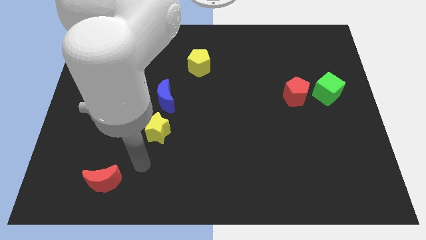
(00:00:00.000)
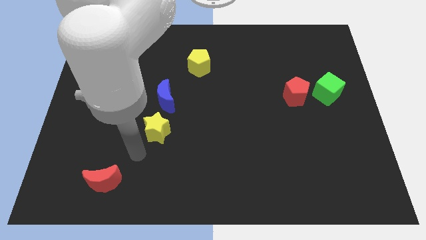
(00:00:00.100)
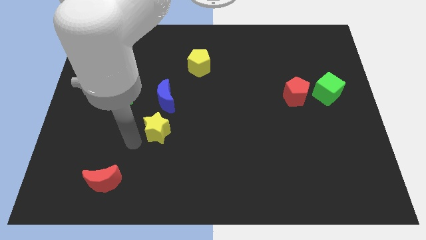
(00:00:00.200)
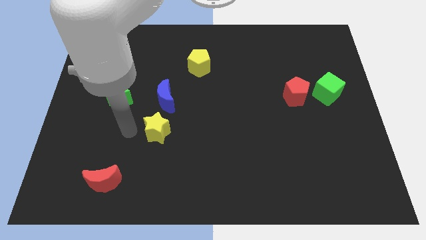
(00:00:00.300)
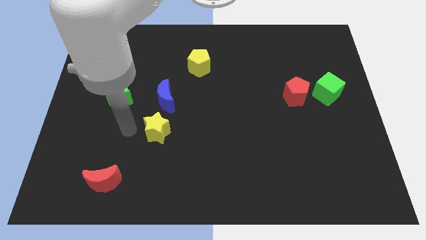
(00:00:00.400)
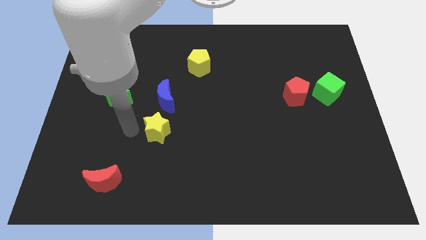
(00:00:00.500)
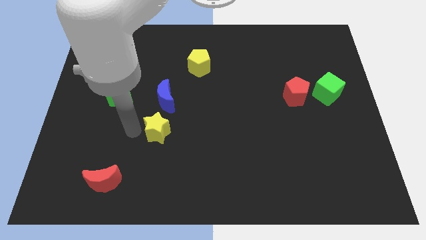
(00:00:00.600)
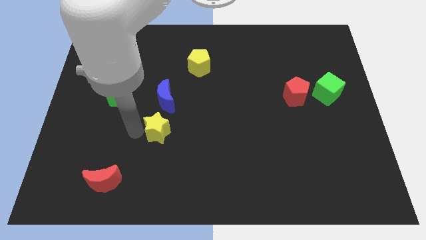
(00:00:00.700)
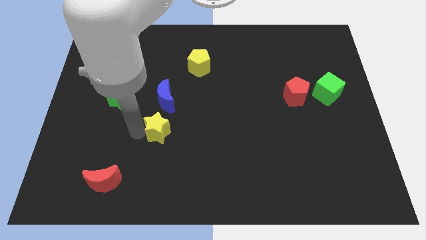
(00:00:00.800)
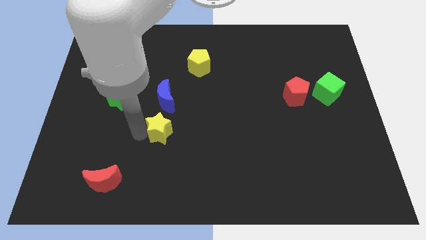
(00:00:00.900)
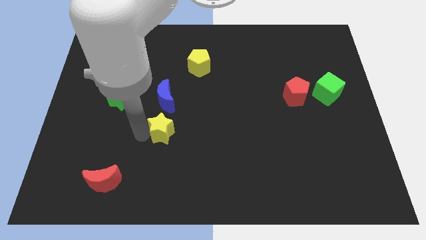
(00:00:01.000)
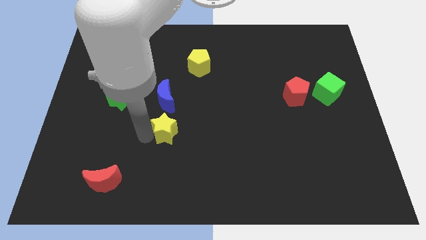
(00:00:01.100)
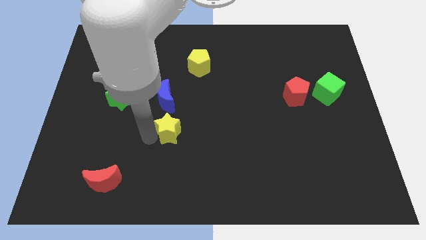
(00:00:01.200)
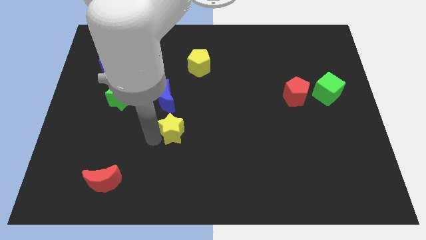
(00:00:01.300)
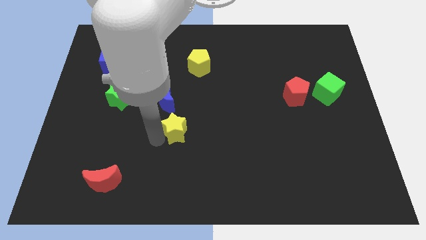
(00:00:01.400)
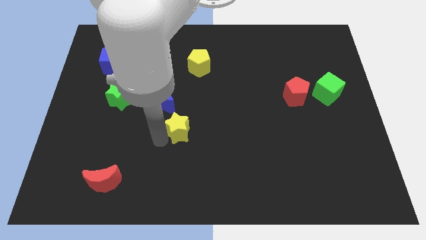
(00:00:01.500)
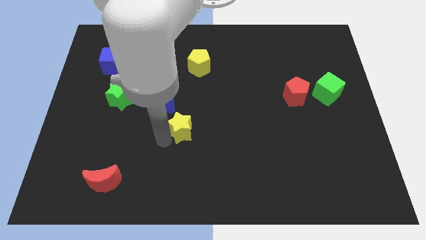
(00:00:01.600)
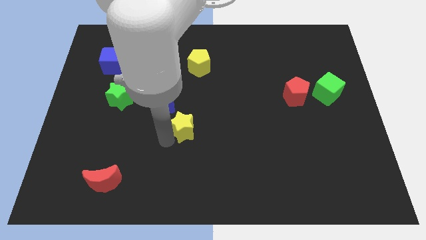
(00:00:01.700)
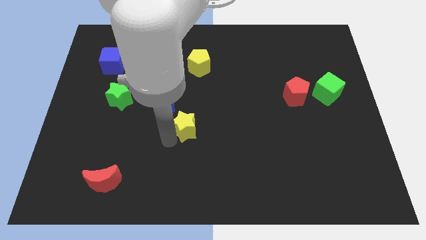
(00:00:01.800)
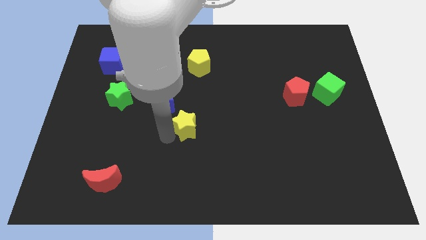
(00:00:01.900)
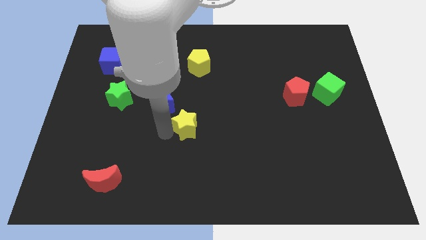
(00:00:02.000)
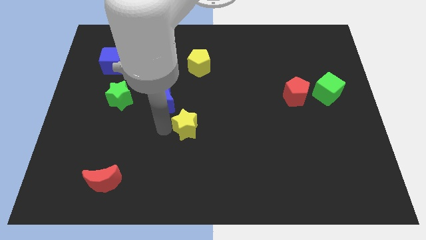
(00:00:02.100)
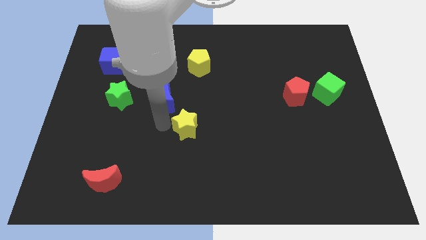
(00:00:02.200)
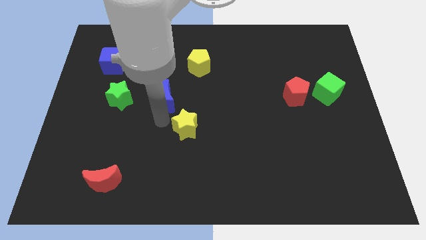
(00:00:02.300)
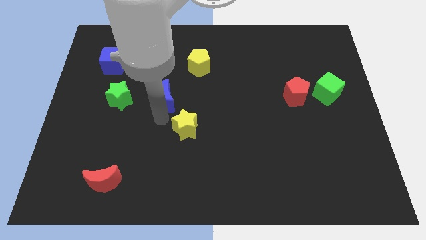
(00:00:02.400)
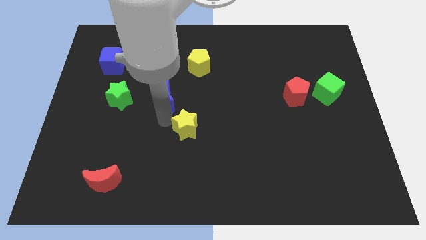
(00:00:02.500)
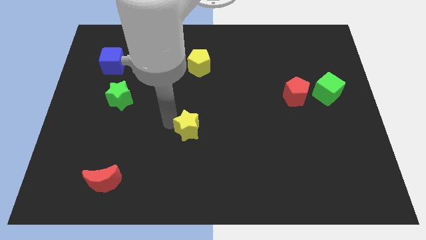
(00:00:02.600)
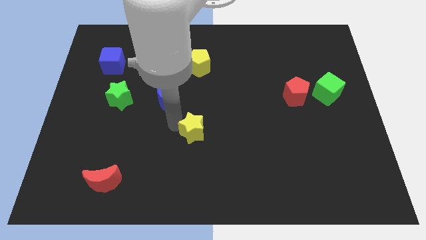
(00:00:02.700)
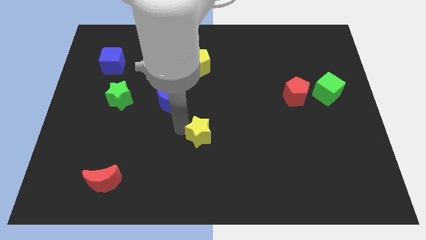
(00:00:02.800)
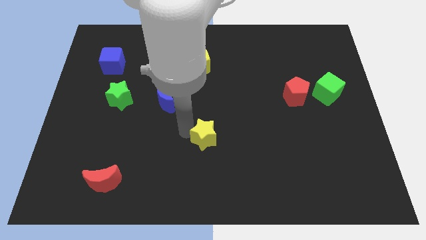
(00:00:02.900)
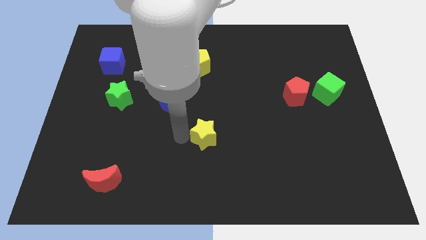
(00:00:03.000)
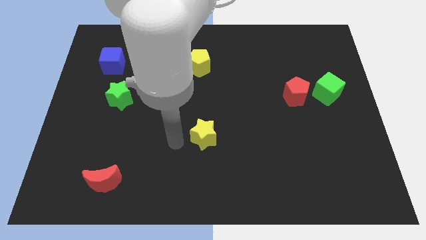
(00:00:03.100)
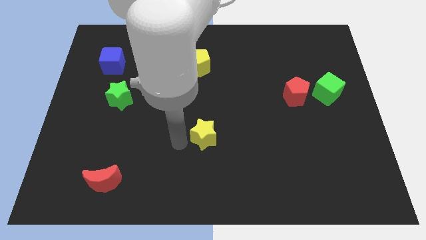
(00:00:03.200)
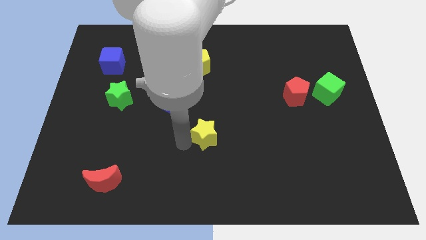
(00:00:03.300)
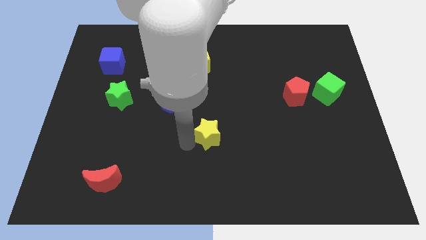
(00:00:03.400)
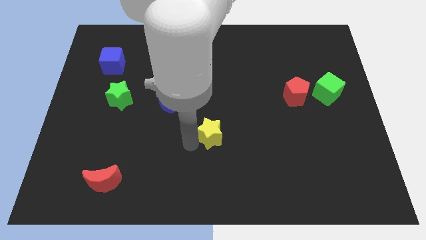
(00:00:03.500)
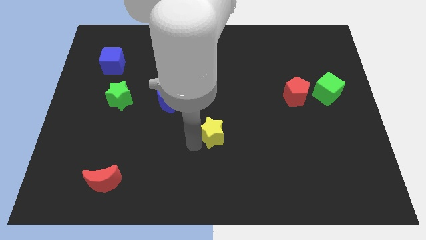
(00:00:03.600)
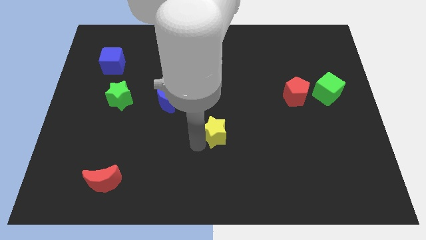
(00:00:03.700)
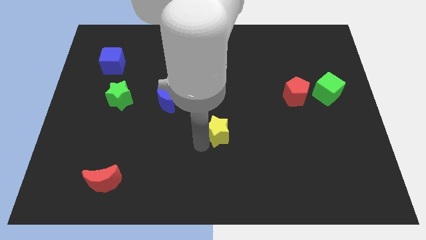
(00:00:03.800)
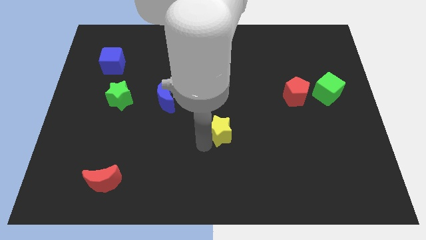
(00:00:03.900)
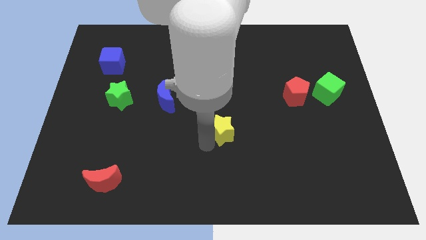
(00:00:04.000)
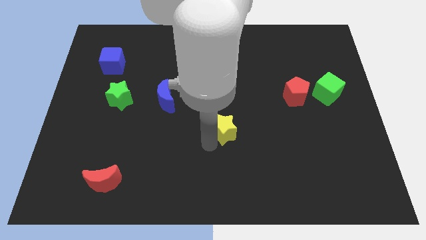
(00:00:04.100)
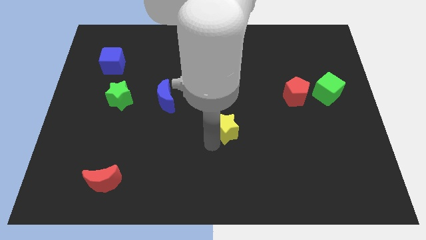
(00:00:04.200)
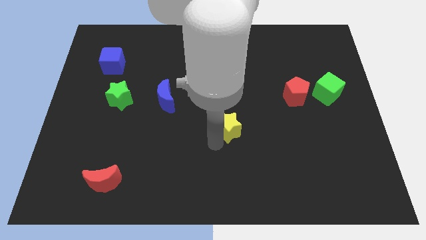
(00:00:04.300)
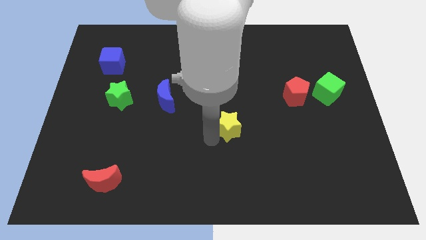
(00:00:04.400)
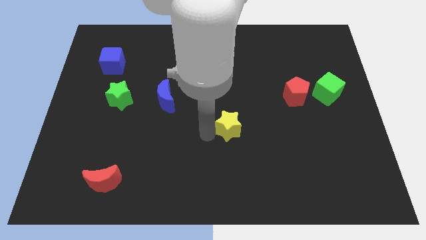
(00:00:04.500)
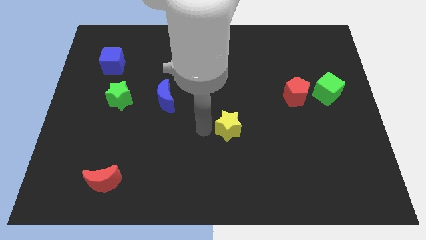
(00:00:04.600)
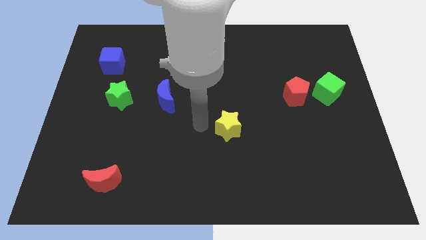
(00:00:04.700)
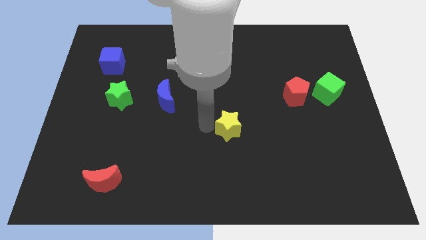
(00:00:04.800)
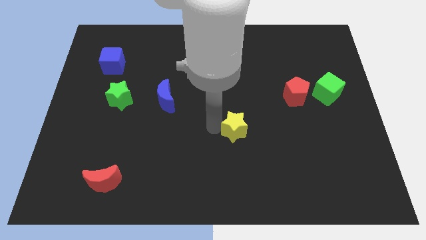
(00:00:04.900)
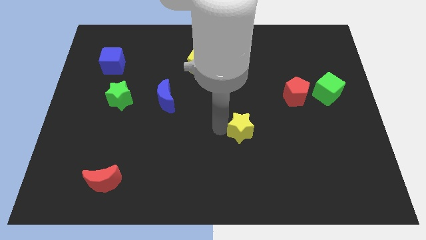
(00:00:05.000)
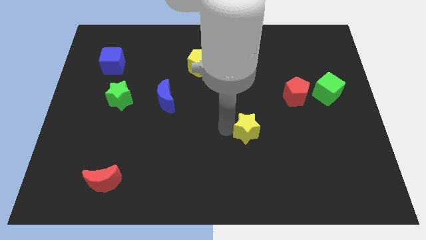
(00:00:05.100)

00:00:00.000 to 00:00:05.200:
move the yellow star to the right

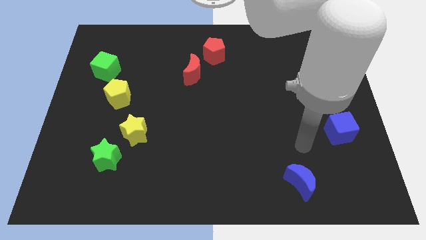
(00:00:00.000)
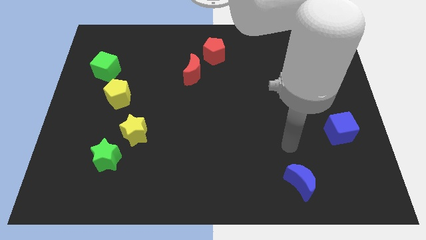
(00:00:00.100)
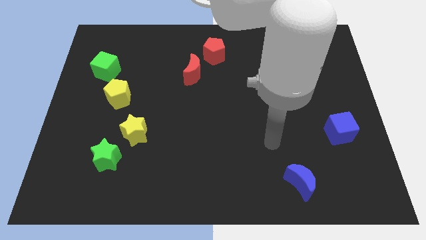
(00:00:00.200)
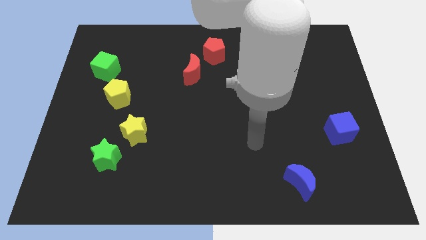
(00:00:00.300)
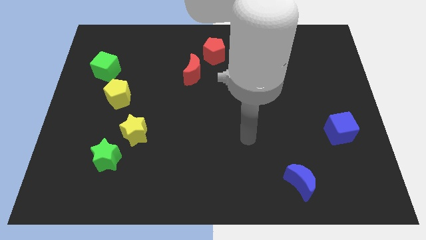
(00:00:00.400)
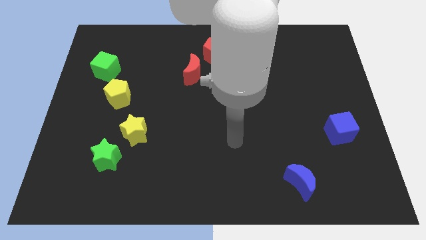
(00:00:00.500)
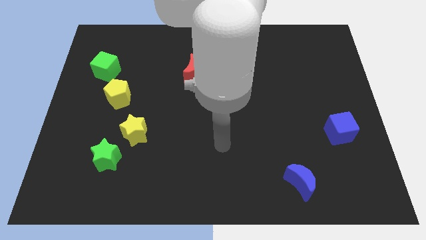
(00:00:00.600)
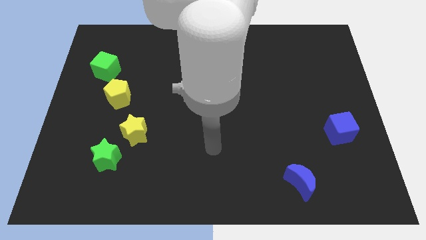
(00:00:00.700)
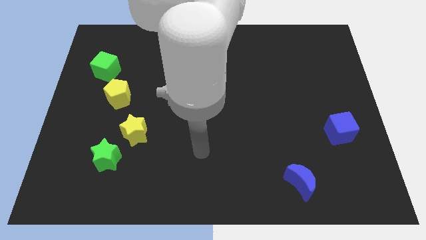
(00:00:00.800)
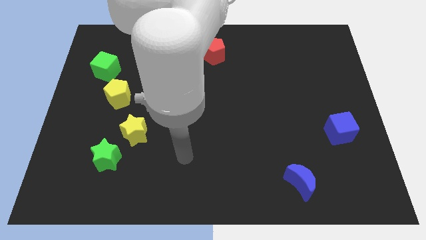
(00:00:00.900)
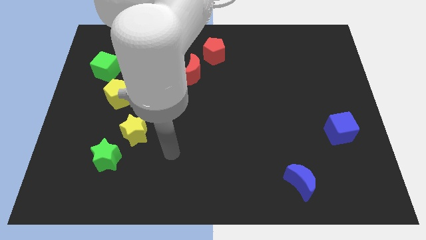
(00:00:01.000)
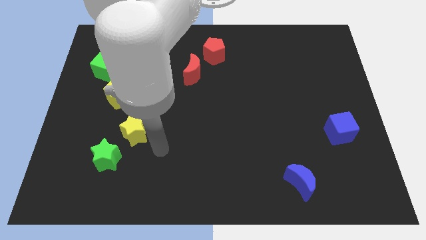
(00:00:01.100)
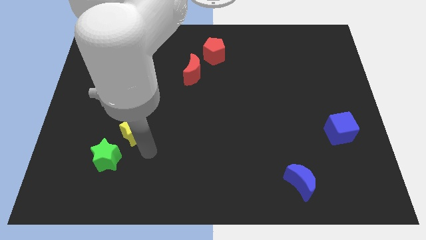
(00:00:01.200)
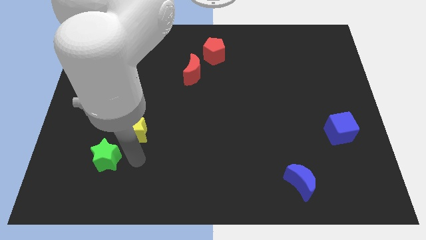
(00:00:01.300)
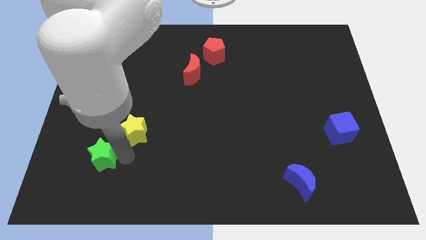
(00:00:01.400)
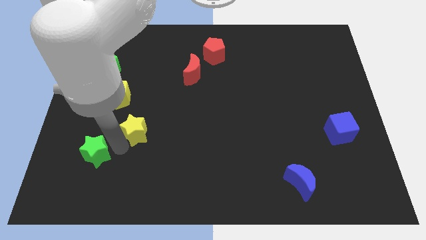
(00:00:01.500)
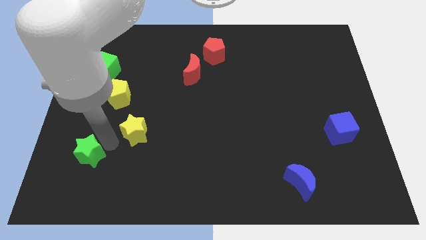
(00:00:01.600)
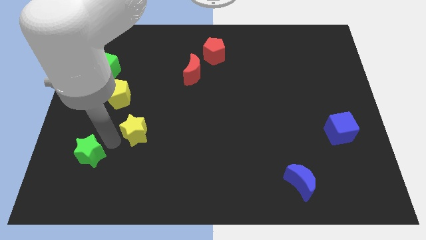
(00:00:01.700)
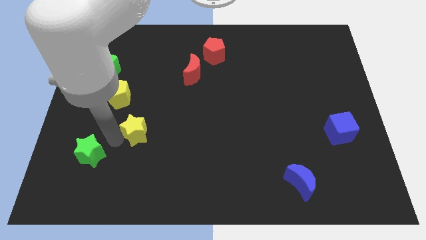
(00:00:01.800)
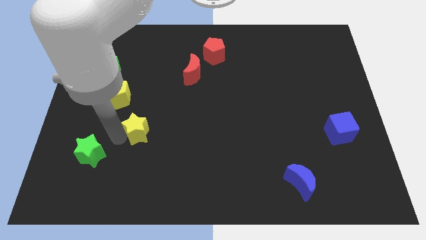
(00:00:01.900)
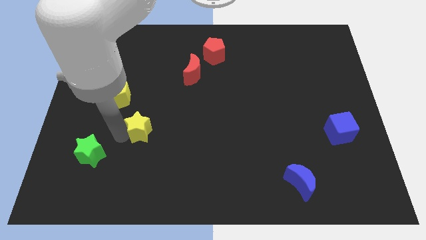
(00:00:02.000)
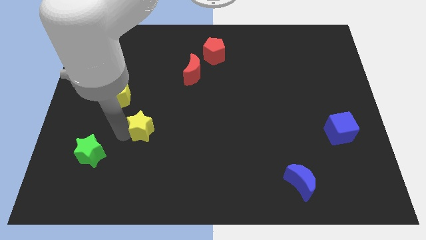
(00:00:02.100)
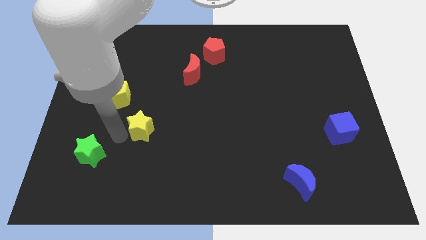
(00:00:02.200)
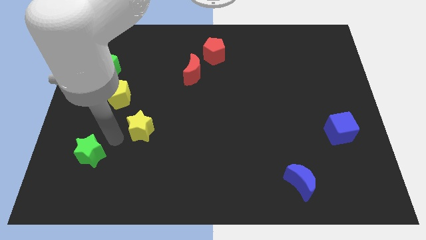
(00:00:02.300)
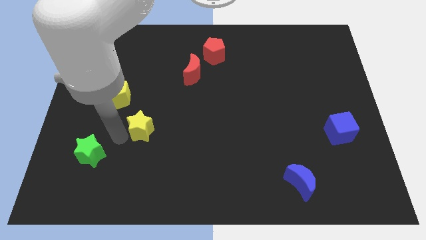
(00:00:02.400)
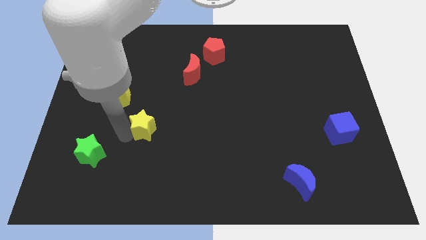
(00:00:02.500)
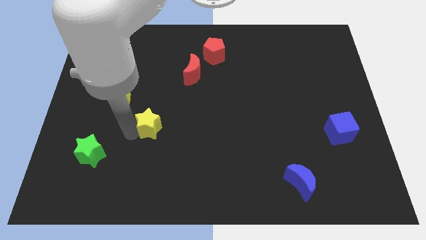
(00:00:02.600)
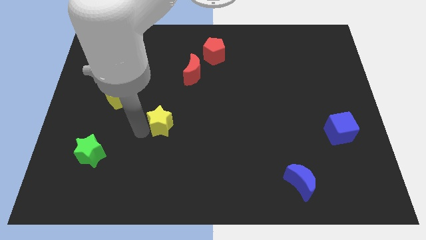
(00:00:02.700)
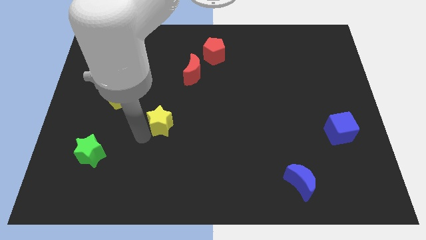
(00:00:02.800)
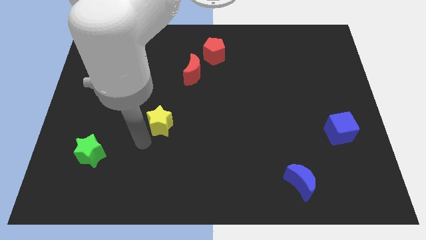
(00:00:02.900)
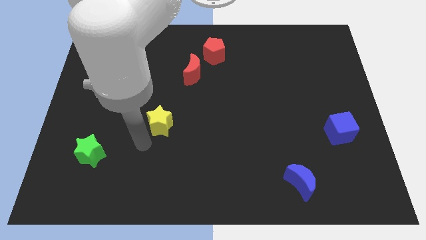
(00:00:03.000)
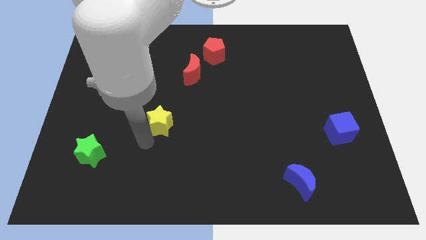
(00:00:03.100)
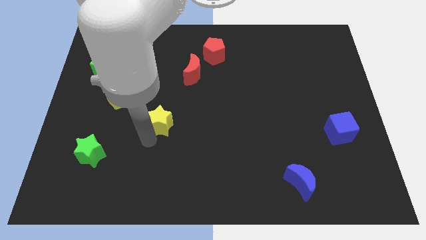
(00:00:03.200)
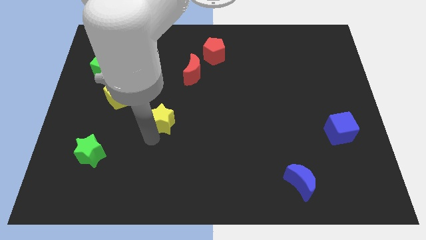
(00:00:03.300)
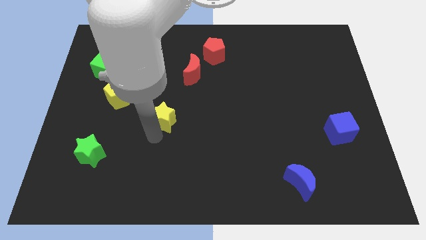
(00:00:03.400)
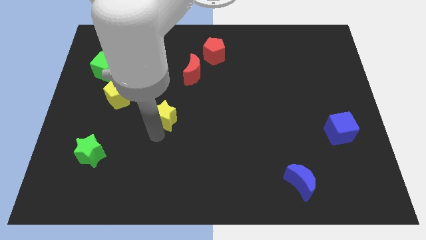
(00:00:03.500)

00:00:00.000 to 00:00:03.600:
slide the yellow star somewhat upwards and right
